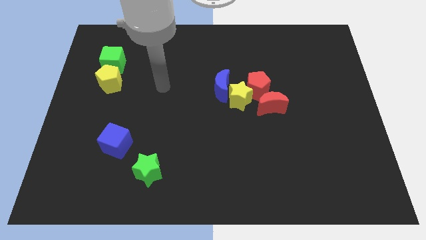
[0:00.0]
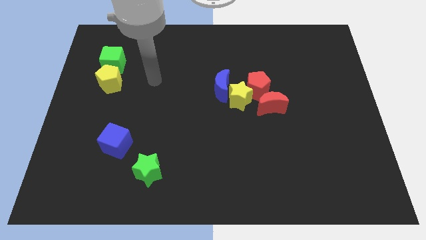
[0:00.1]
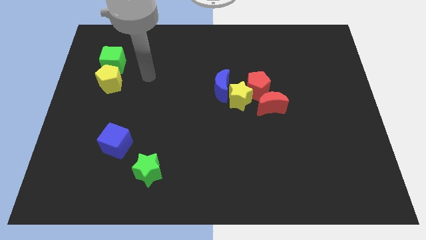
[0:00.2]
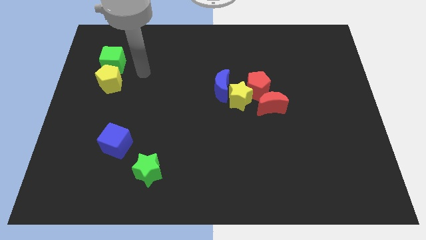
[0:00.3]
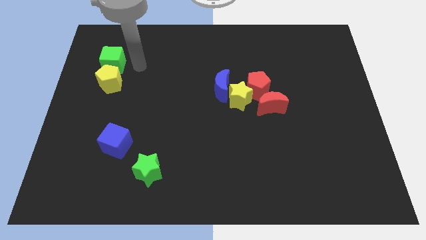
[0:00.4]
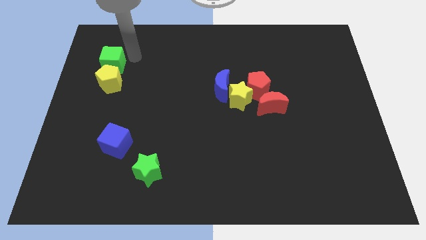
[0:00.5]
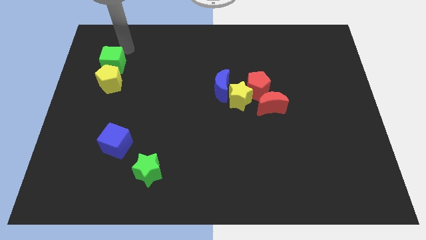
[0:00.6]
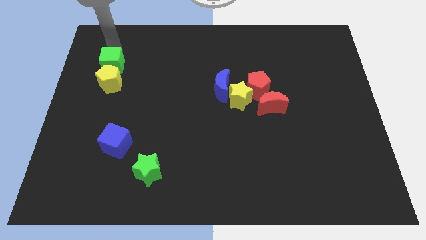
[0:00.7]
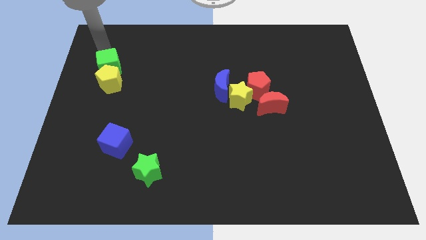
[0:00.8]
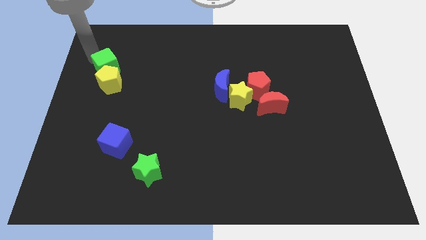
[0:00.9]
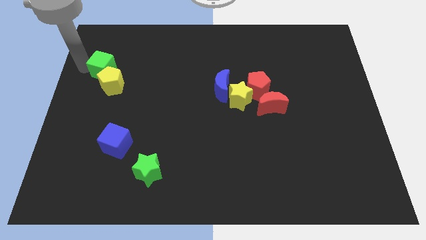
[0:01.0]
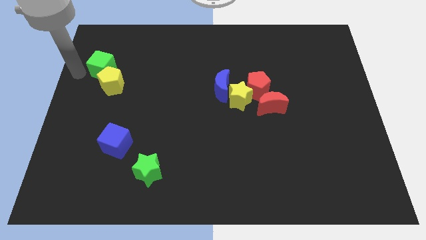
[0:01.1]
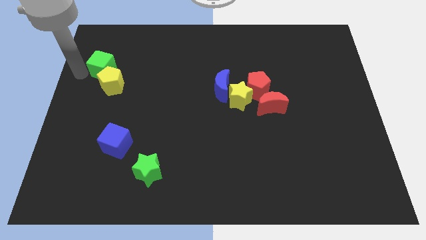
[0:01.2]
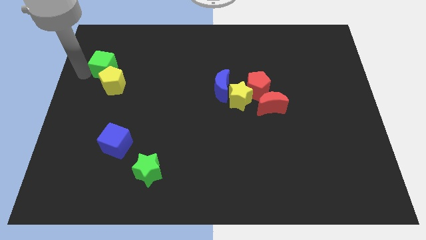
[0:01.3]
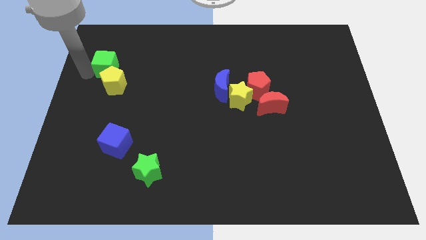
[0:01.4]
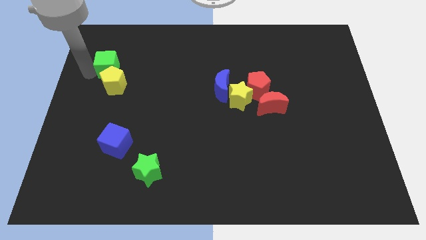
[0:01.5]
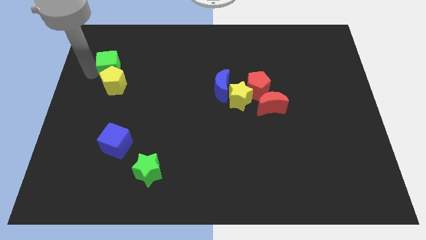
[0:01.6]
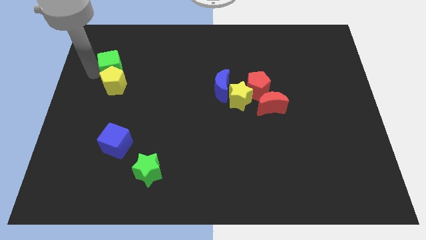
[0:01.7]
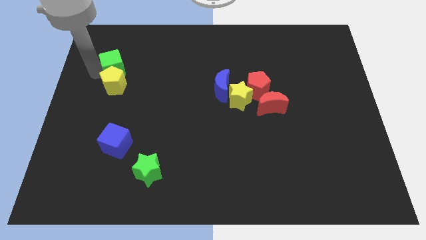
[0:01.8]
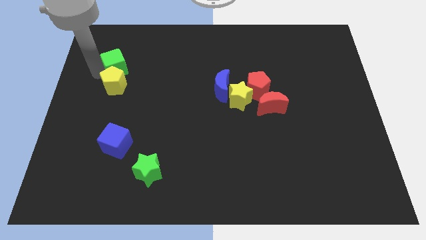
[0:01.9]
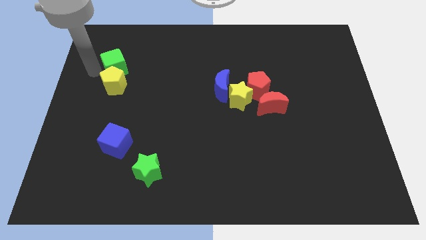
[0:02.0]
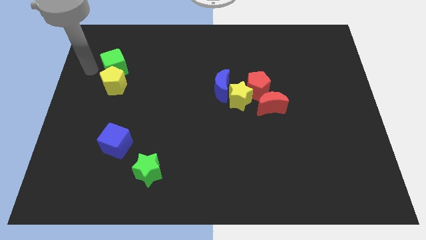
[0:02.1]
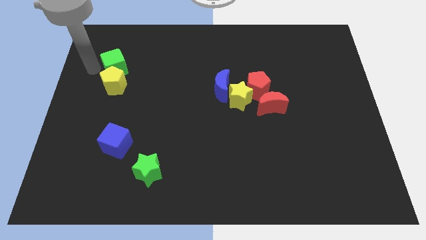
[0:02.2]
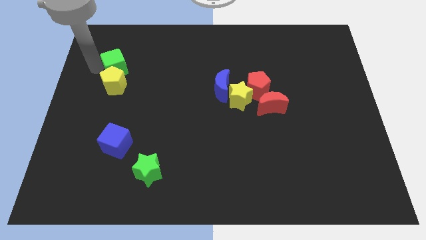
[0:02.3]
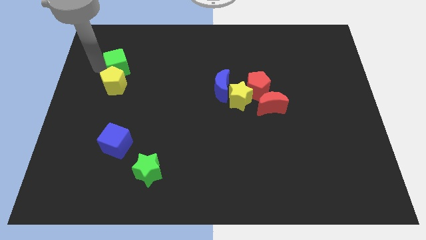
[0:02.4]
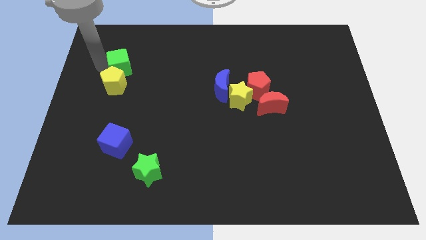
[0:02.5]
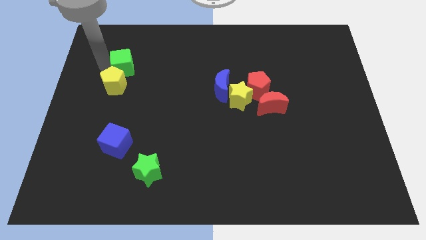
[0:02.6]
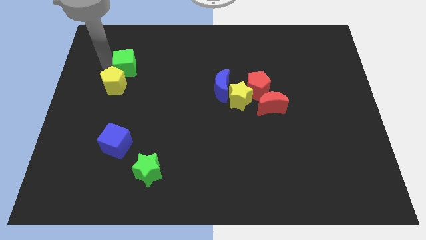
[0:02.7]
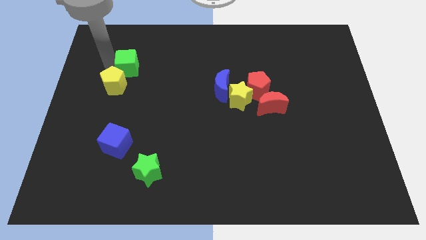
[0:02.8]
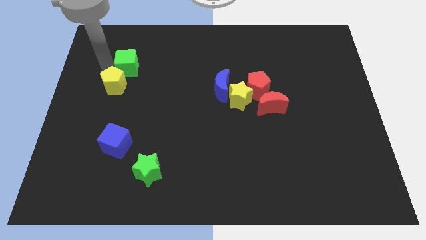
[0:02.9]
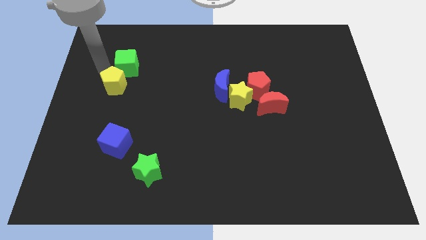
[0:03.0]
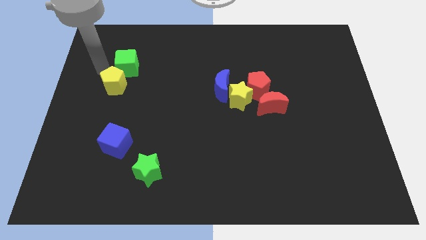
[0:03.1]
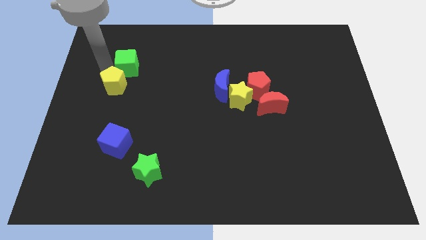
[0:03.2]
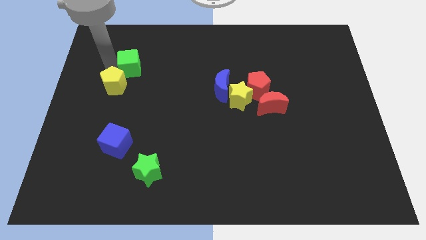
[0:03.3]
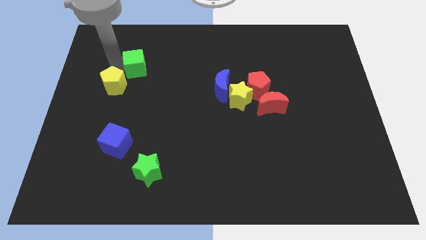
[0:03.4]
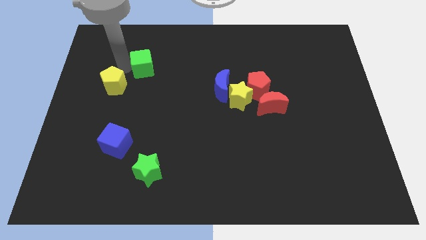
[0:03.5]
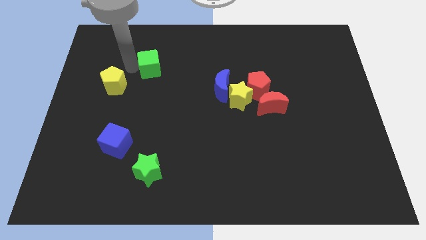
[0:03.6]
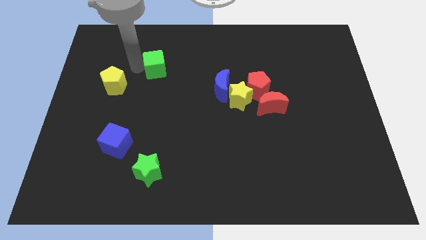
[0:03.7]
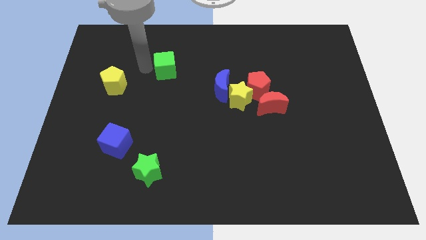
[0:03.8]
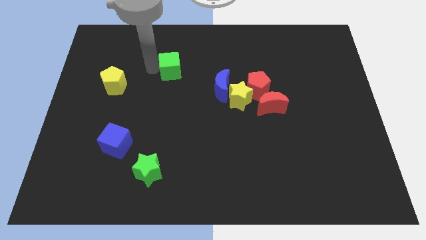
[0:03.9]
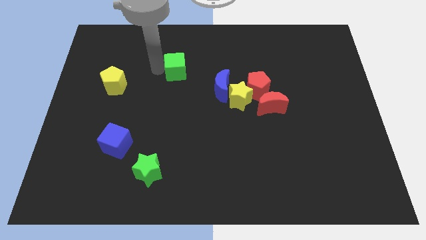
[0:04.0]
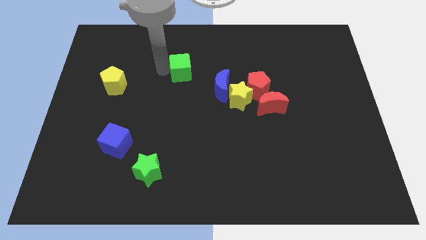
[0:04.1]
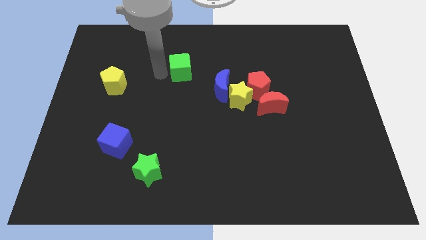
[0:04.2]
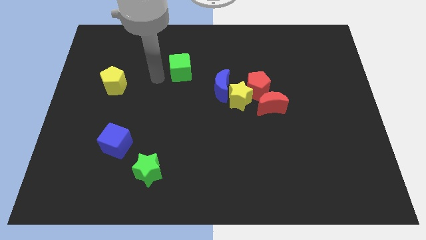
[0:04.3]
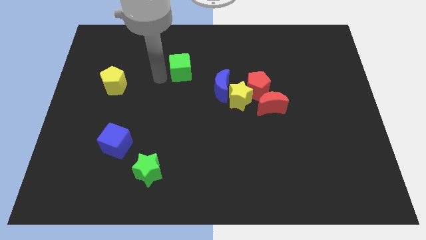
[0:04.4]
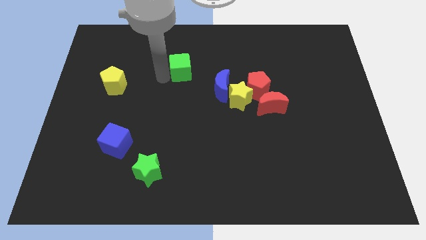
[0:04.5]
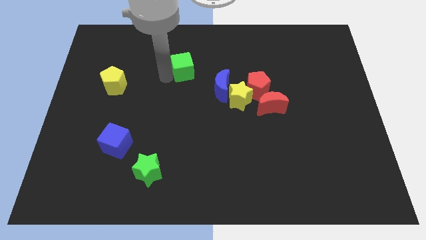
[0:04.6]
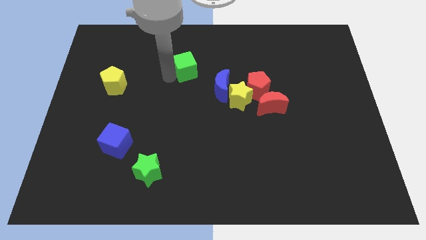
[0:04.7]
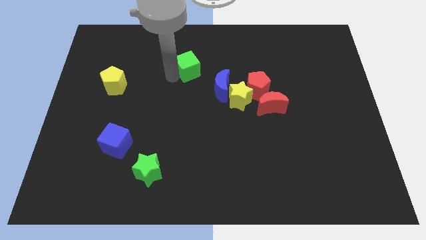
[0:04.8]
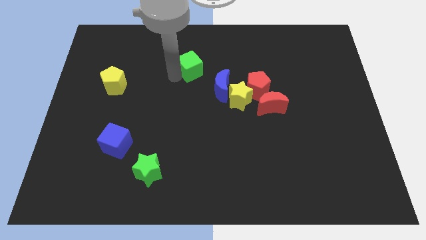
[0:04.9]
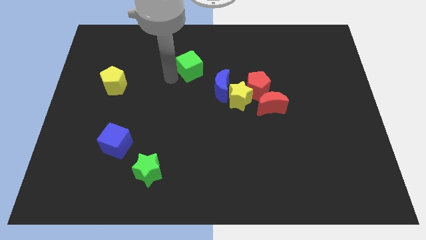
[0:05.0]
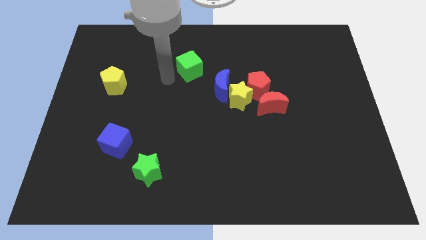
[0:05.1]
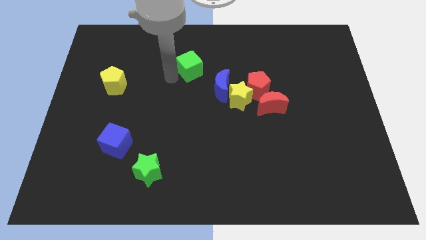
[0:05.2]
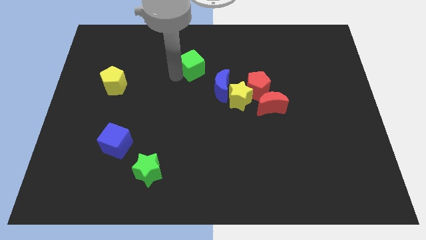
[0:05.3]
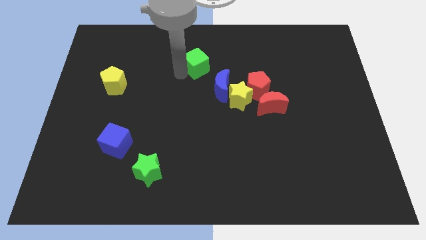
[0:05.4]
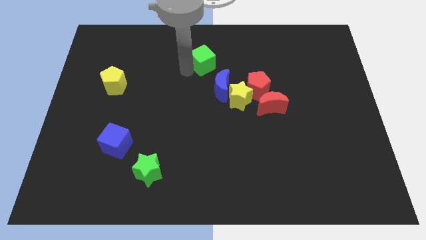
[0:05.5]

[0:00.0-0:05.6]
slide the green cube above the blue moon

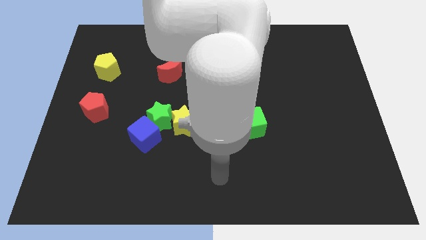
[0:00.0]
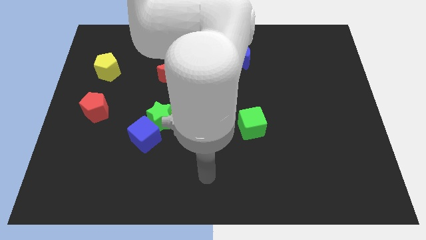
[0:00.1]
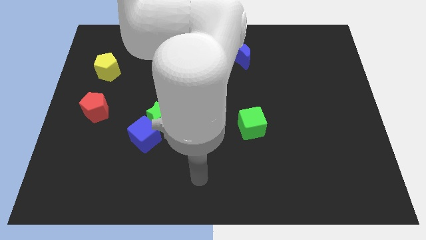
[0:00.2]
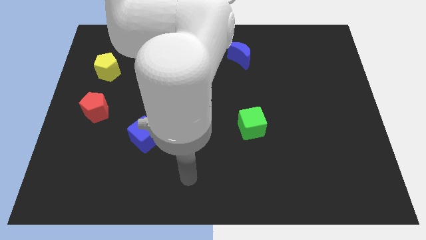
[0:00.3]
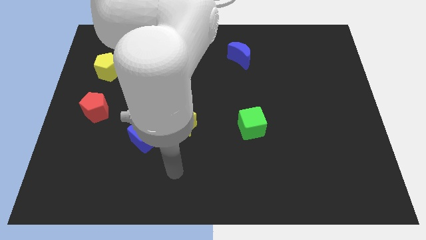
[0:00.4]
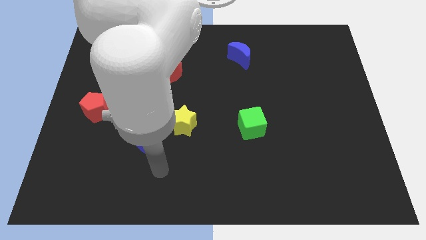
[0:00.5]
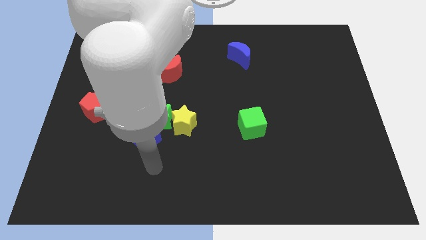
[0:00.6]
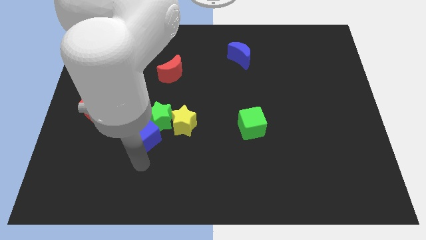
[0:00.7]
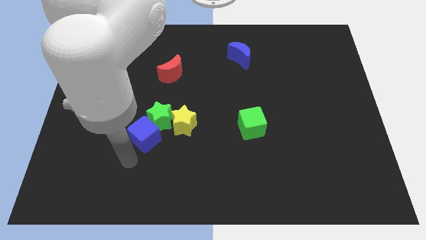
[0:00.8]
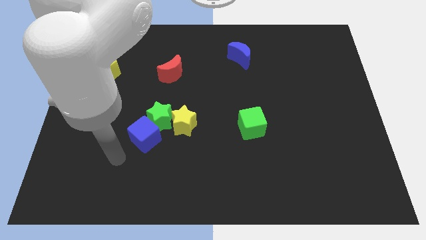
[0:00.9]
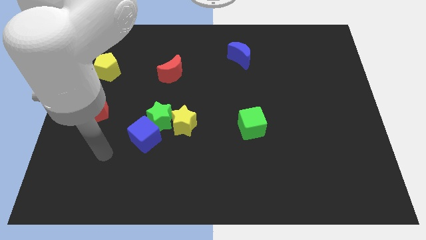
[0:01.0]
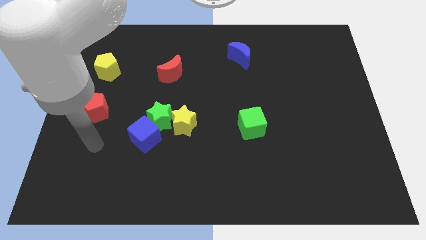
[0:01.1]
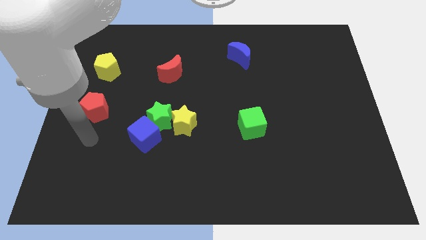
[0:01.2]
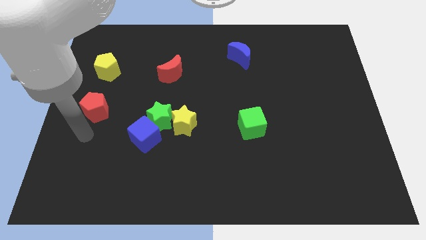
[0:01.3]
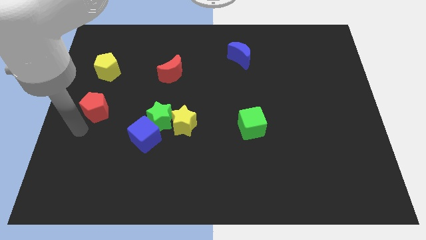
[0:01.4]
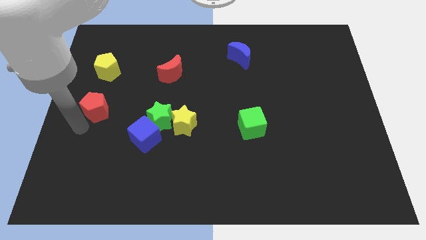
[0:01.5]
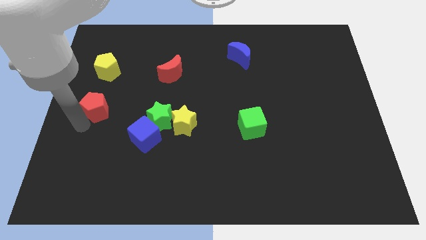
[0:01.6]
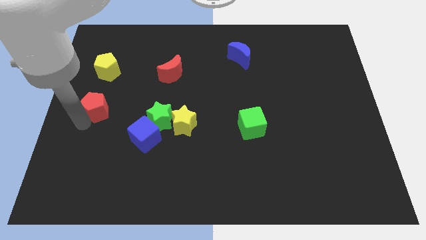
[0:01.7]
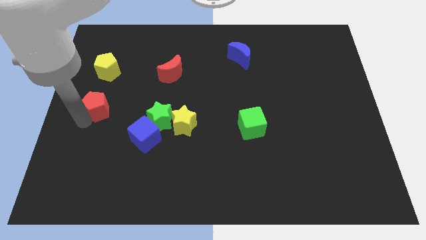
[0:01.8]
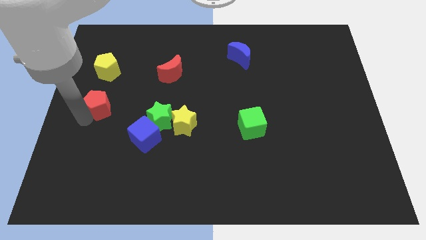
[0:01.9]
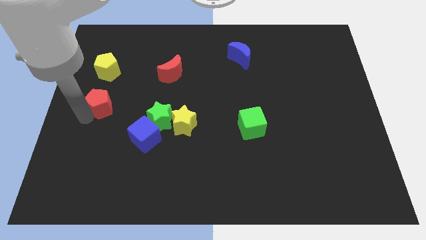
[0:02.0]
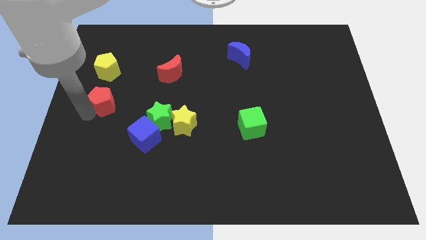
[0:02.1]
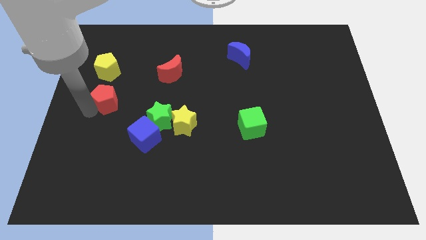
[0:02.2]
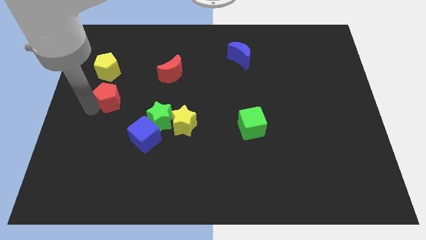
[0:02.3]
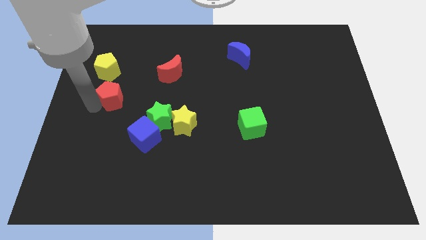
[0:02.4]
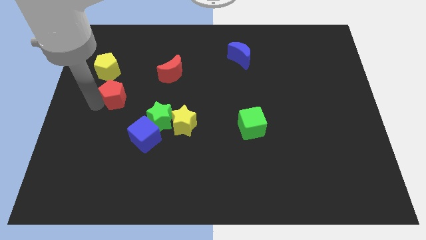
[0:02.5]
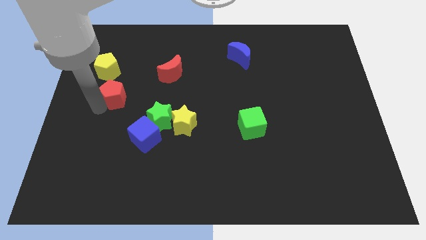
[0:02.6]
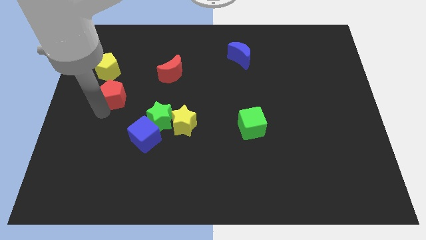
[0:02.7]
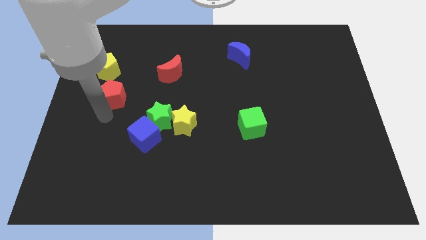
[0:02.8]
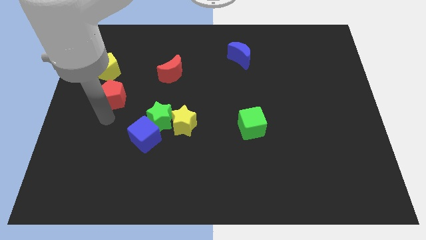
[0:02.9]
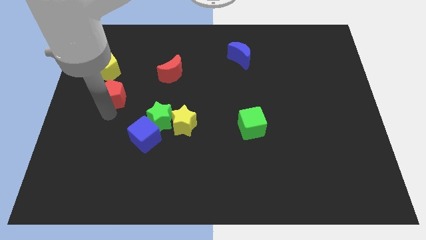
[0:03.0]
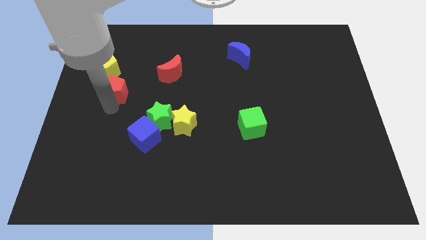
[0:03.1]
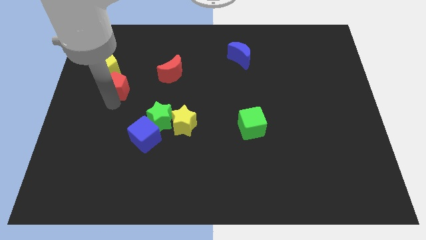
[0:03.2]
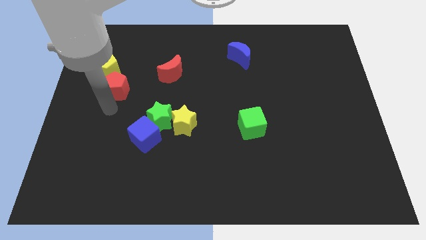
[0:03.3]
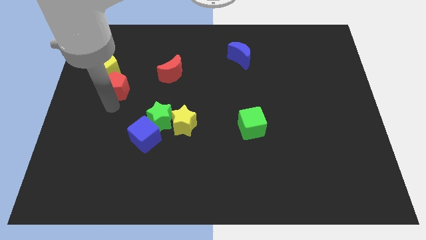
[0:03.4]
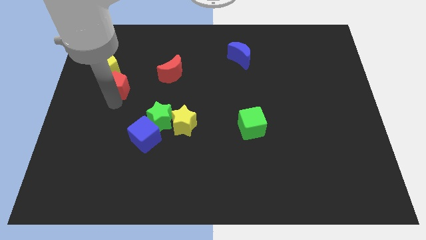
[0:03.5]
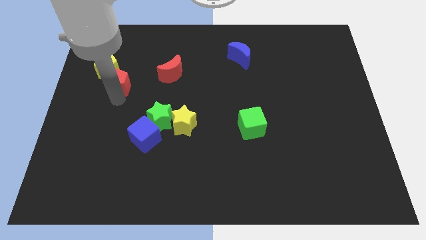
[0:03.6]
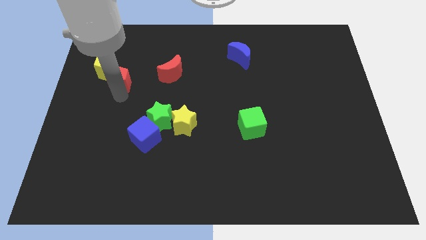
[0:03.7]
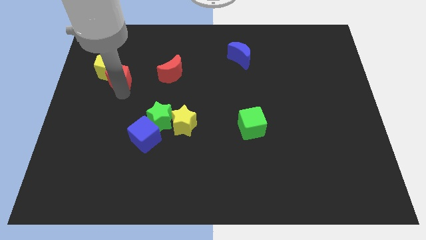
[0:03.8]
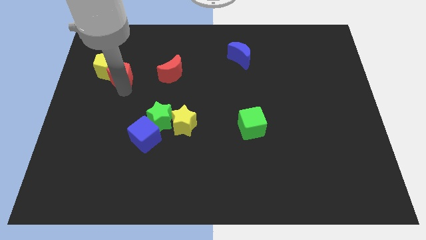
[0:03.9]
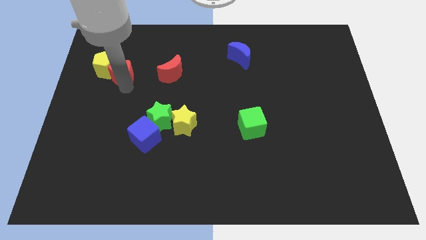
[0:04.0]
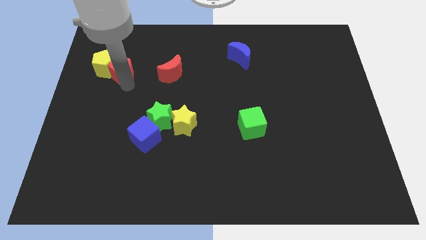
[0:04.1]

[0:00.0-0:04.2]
move the red pentagon to the top right side of the yellow pentagon
